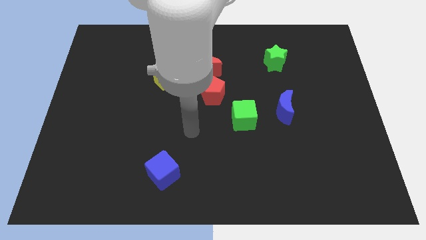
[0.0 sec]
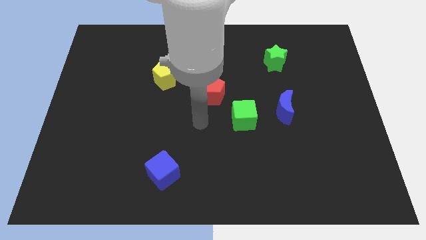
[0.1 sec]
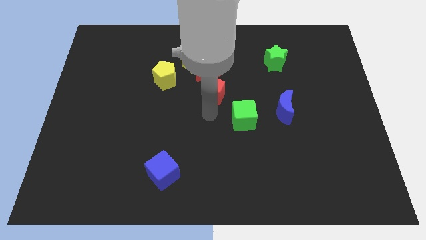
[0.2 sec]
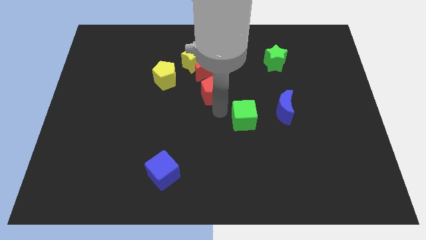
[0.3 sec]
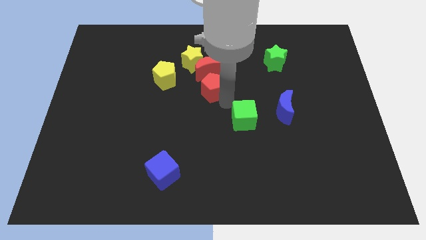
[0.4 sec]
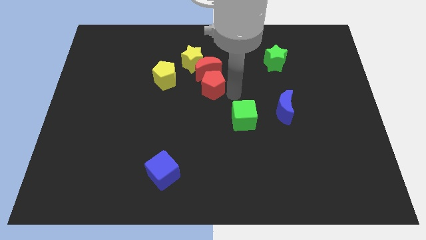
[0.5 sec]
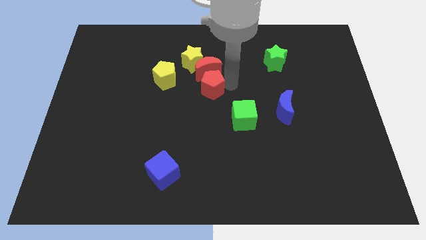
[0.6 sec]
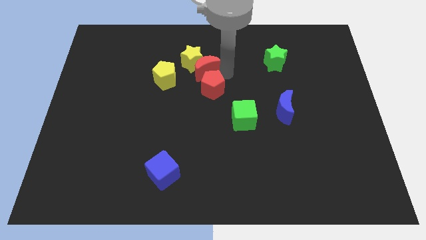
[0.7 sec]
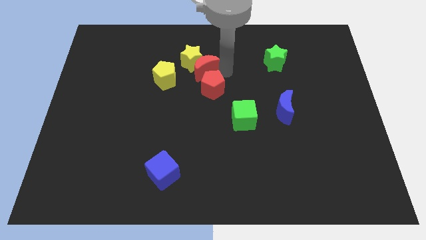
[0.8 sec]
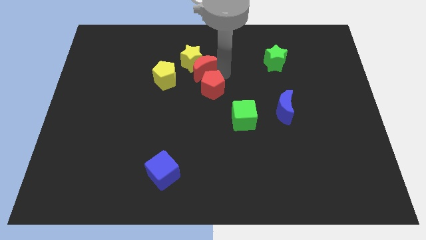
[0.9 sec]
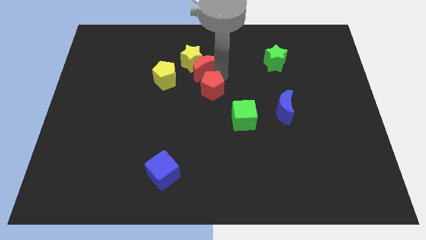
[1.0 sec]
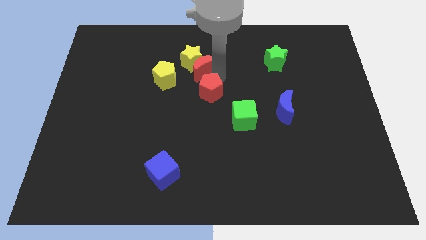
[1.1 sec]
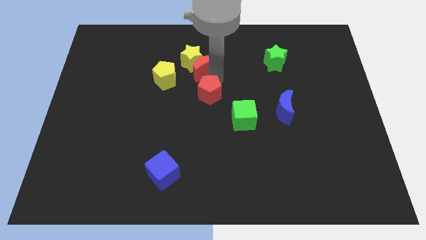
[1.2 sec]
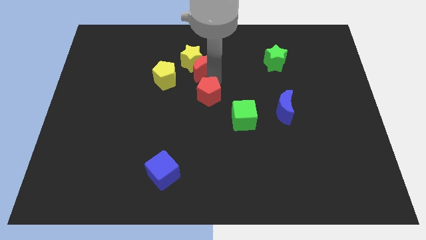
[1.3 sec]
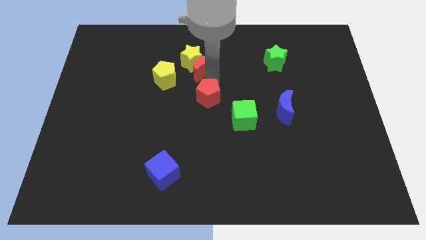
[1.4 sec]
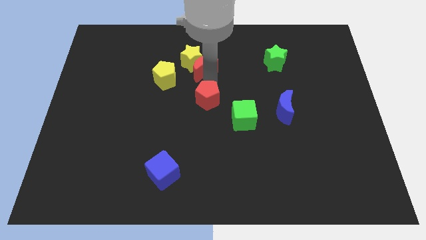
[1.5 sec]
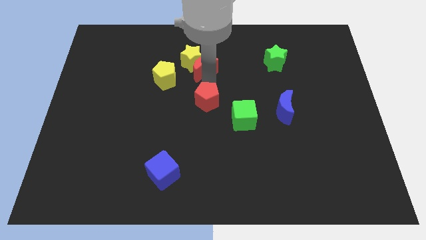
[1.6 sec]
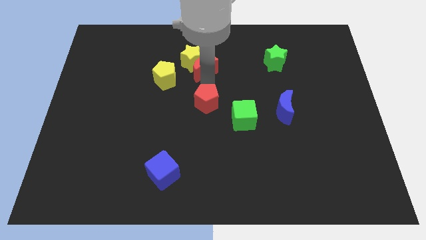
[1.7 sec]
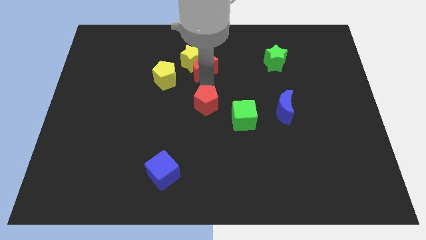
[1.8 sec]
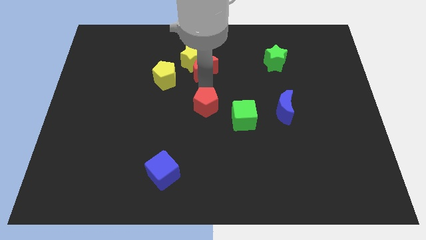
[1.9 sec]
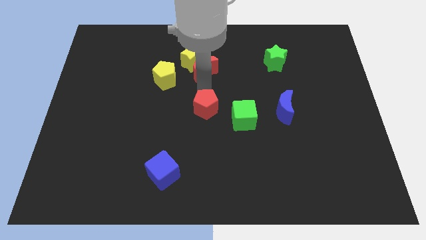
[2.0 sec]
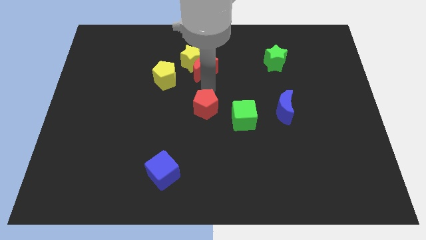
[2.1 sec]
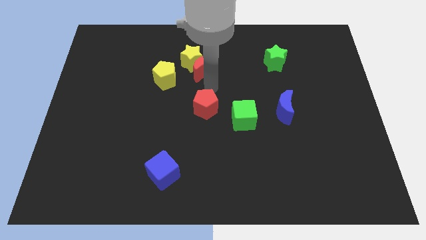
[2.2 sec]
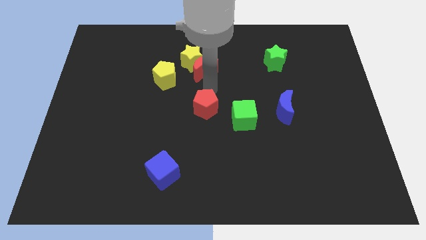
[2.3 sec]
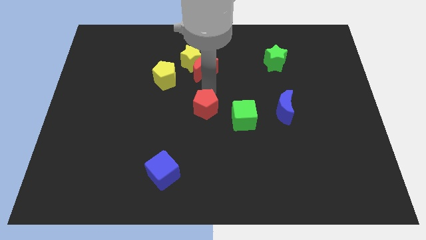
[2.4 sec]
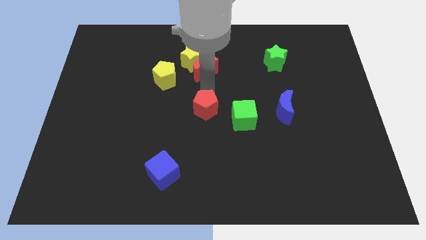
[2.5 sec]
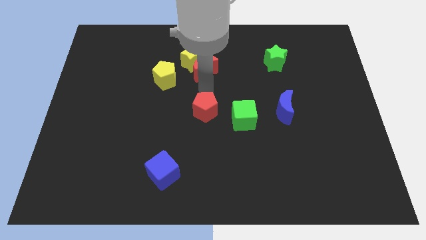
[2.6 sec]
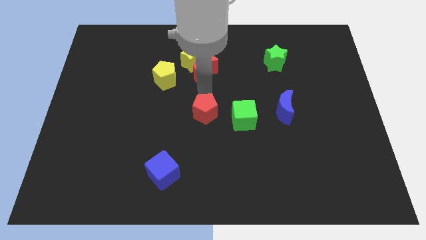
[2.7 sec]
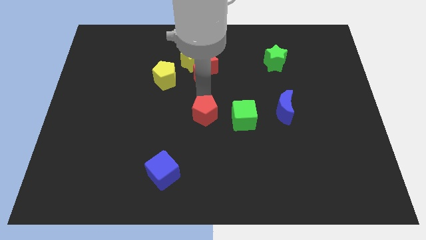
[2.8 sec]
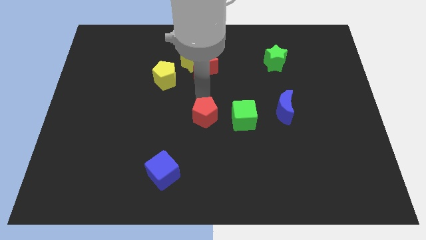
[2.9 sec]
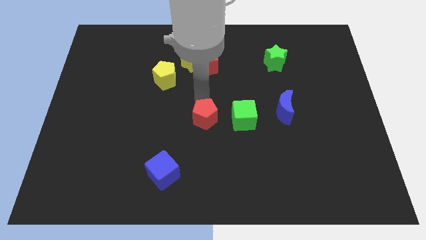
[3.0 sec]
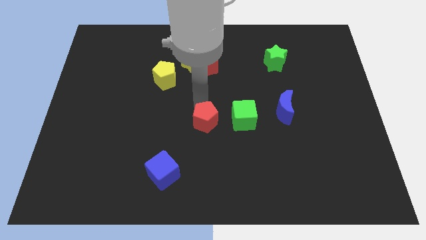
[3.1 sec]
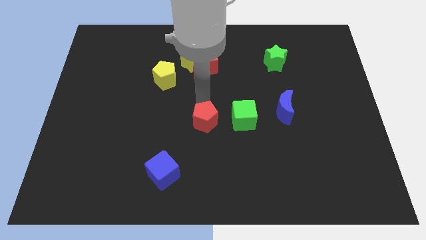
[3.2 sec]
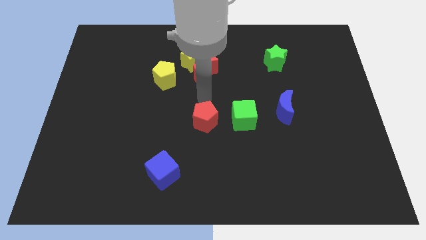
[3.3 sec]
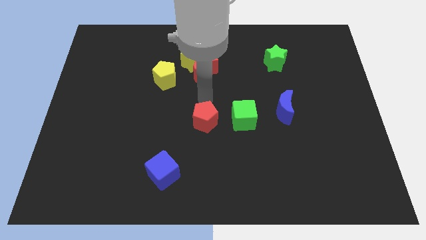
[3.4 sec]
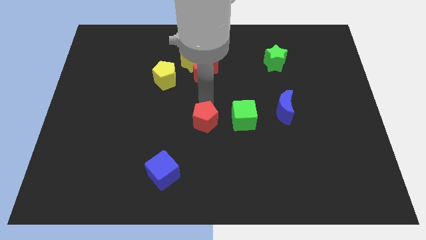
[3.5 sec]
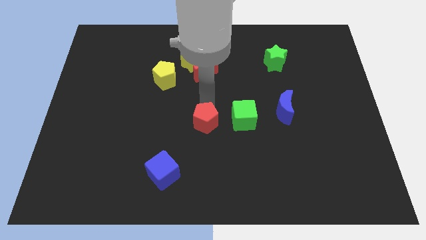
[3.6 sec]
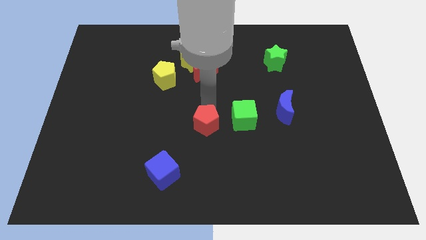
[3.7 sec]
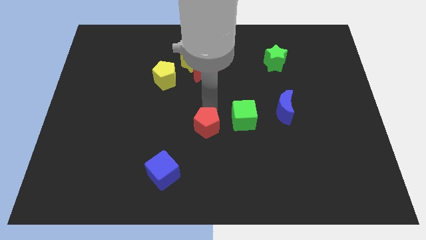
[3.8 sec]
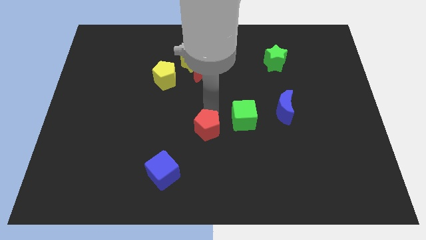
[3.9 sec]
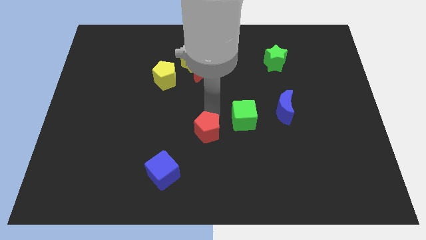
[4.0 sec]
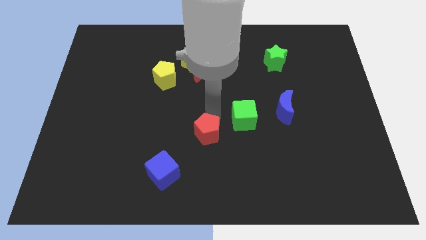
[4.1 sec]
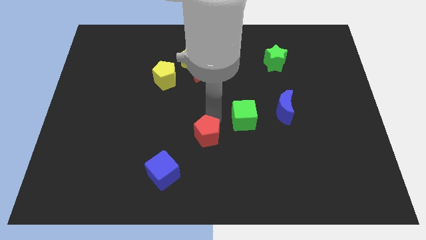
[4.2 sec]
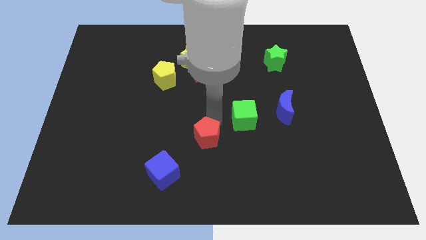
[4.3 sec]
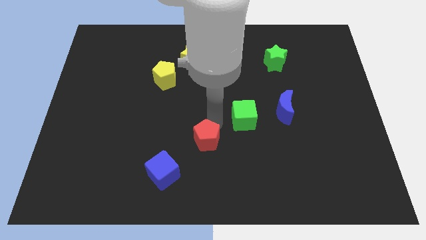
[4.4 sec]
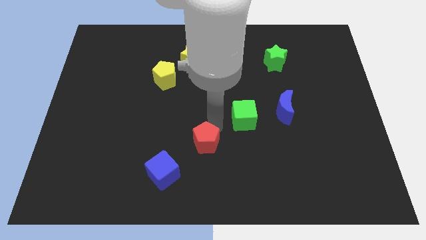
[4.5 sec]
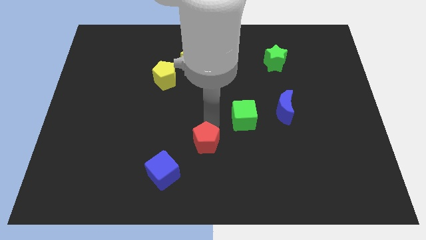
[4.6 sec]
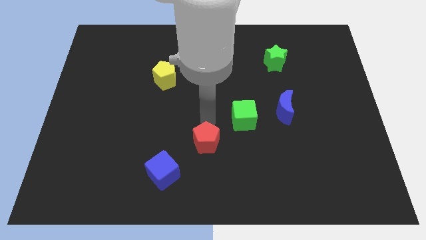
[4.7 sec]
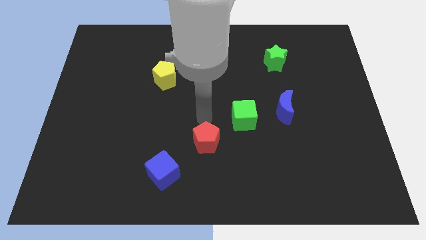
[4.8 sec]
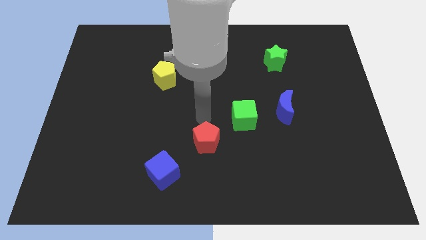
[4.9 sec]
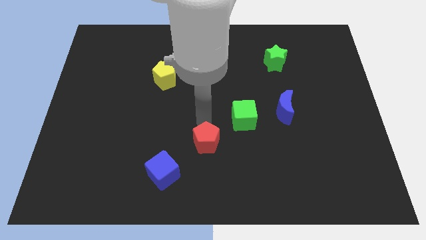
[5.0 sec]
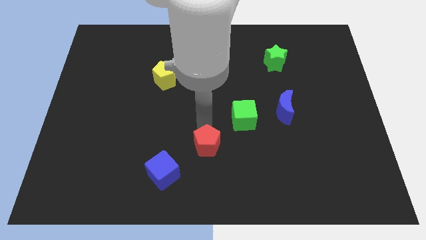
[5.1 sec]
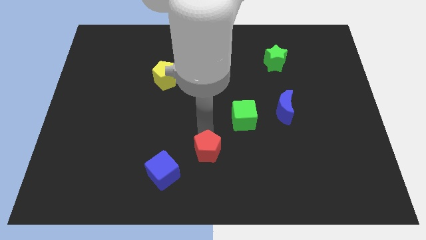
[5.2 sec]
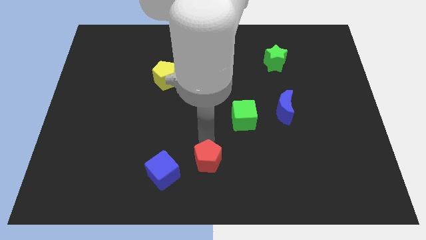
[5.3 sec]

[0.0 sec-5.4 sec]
put the red pentagon to the bottom

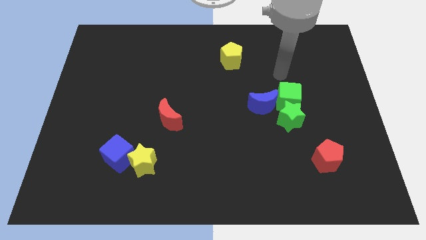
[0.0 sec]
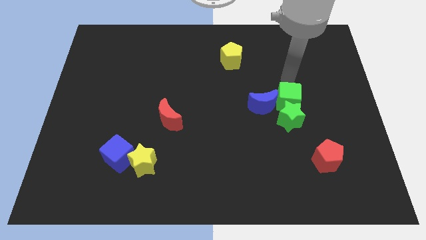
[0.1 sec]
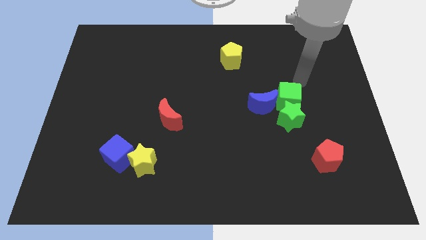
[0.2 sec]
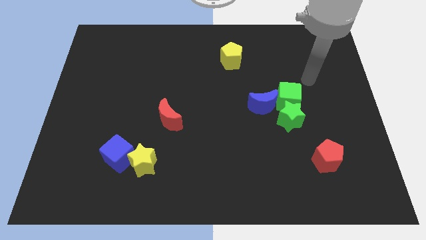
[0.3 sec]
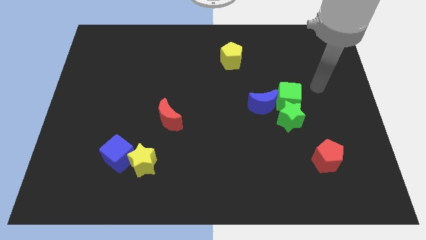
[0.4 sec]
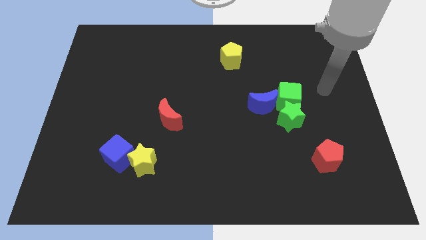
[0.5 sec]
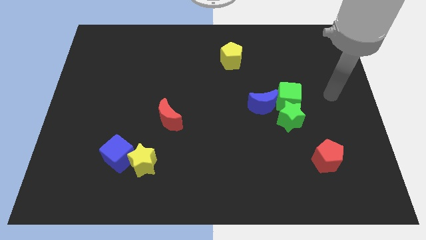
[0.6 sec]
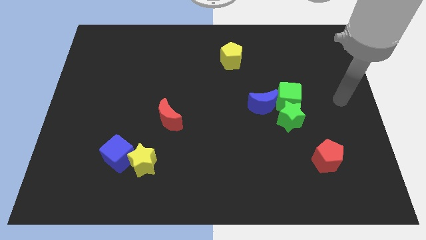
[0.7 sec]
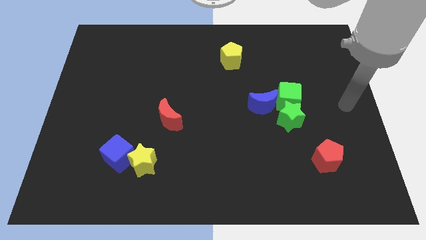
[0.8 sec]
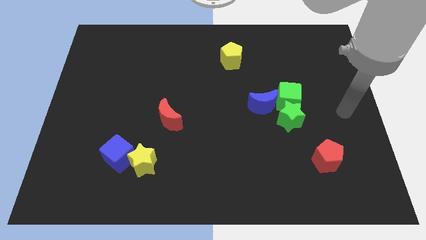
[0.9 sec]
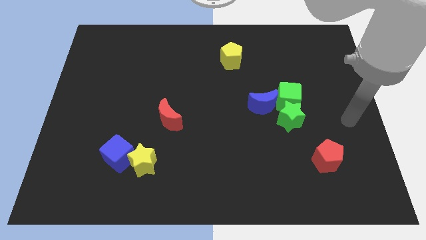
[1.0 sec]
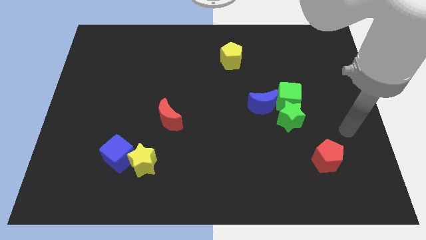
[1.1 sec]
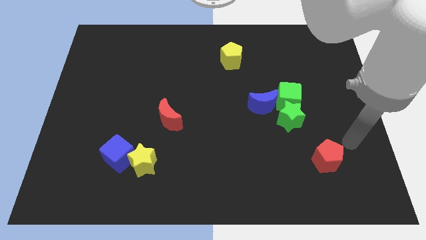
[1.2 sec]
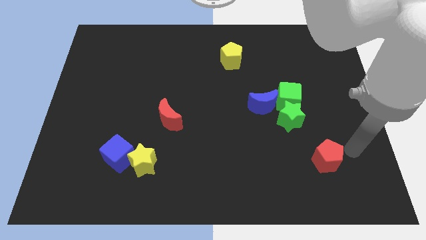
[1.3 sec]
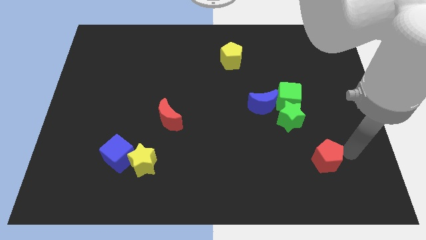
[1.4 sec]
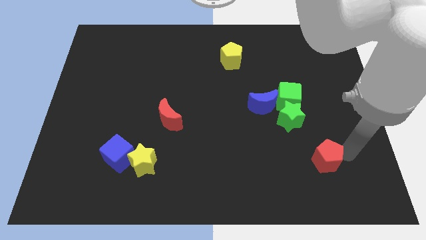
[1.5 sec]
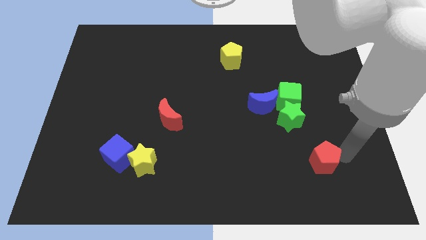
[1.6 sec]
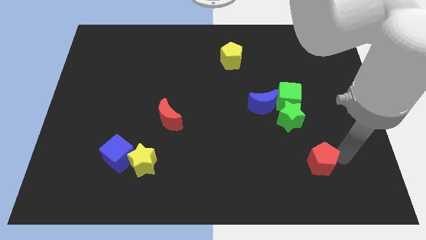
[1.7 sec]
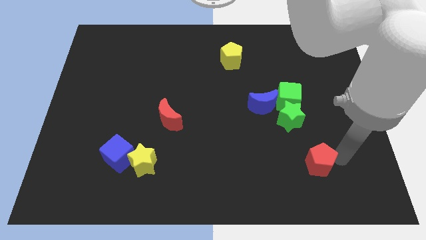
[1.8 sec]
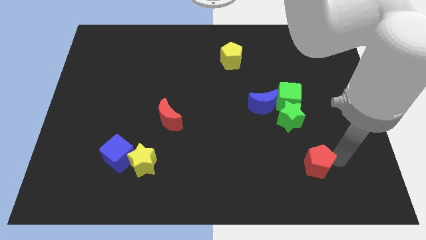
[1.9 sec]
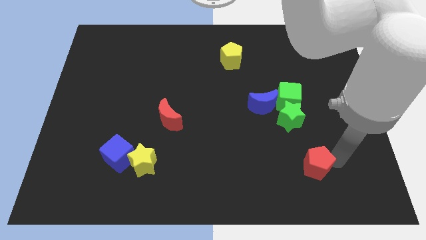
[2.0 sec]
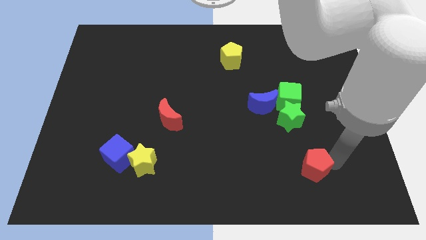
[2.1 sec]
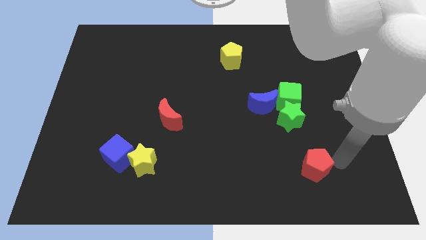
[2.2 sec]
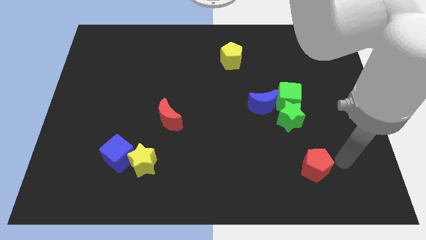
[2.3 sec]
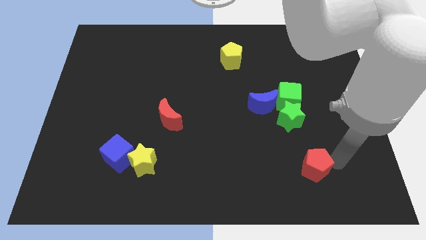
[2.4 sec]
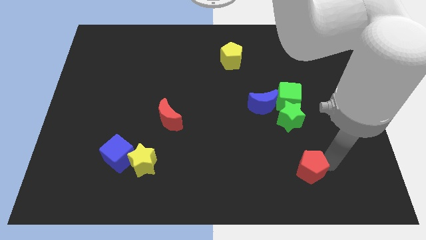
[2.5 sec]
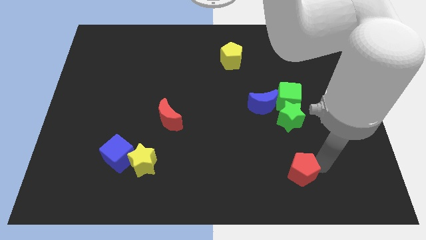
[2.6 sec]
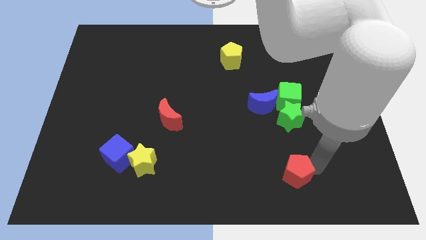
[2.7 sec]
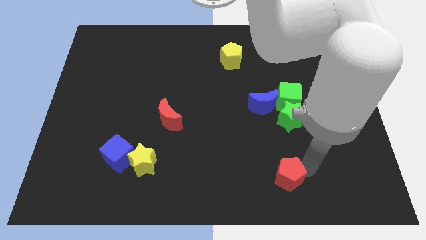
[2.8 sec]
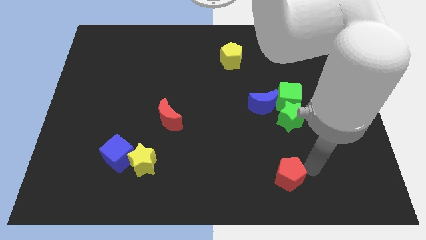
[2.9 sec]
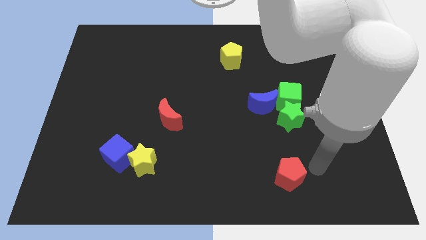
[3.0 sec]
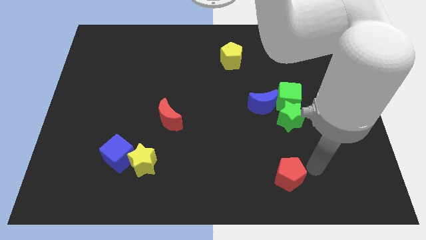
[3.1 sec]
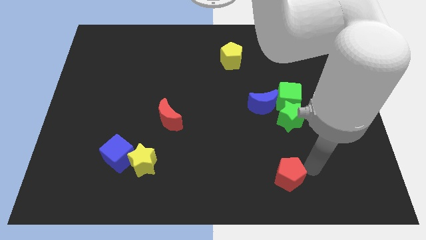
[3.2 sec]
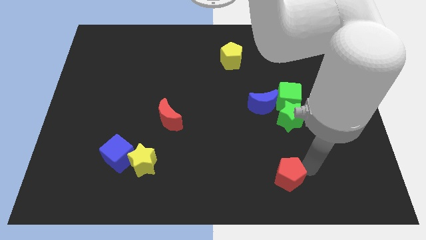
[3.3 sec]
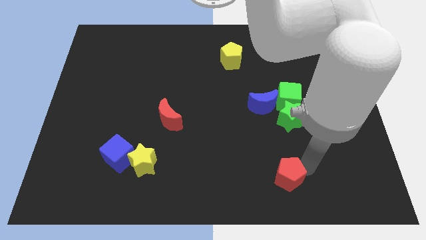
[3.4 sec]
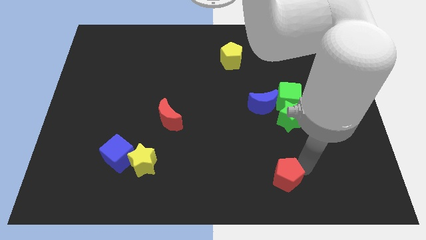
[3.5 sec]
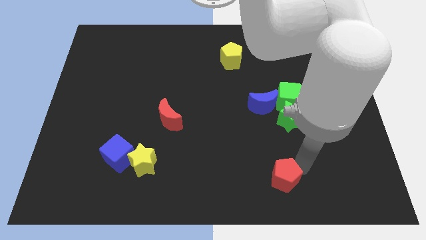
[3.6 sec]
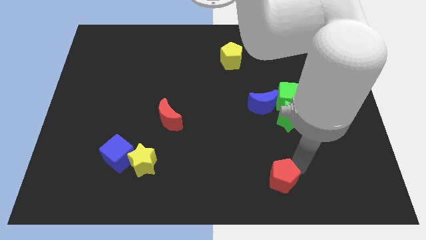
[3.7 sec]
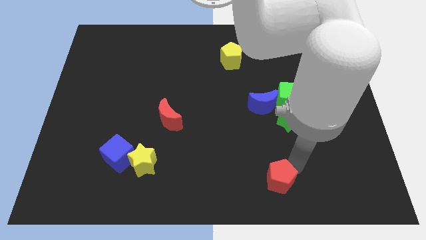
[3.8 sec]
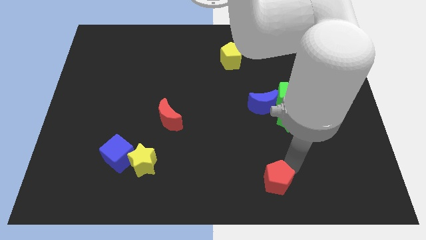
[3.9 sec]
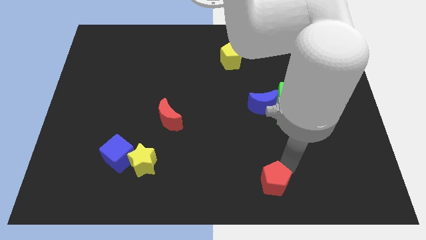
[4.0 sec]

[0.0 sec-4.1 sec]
move the red pentagon to the bottom side
